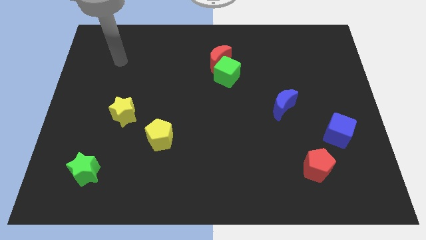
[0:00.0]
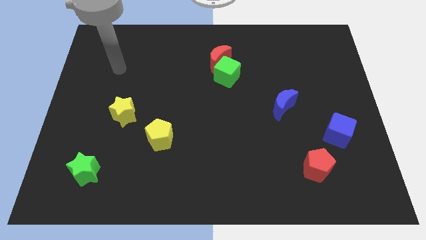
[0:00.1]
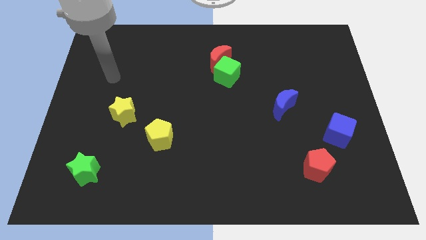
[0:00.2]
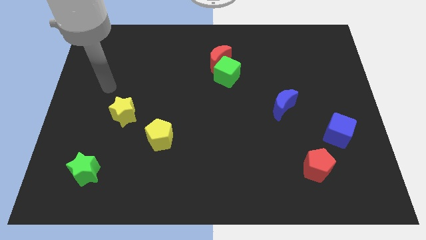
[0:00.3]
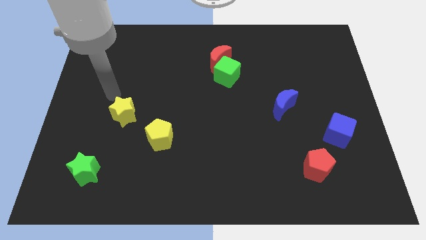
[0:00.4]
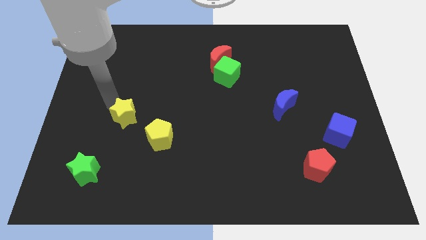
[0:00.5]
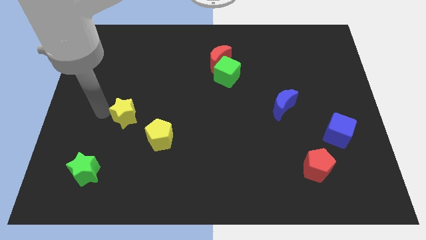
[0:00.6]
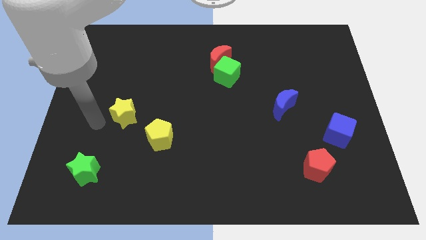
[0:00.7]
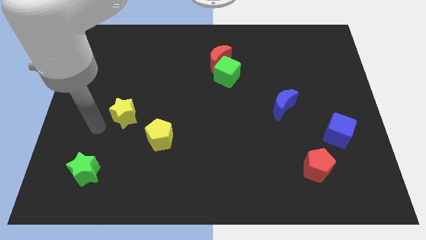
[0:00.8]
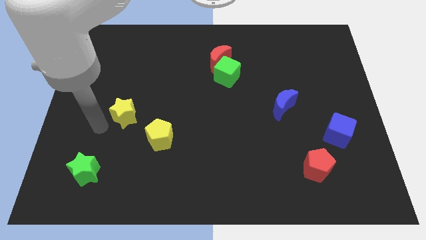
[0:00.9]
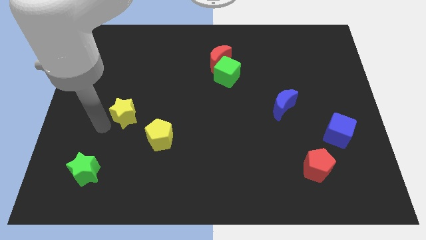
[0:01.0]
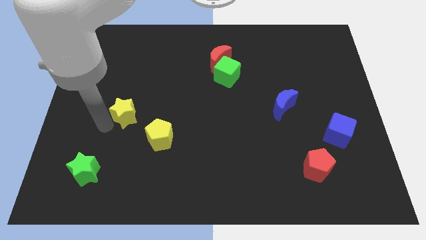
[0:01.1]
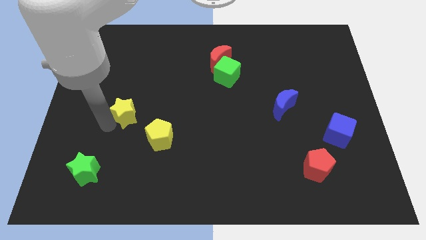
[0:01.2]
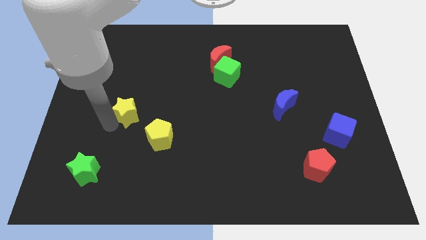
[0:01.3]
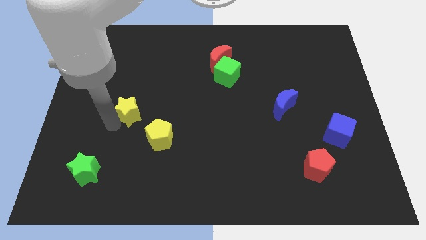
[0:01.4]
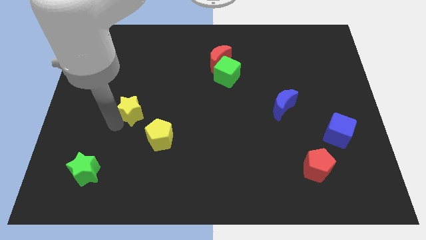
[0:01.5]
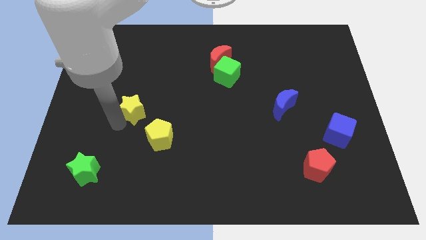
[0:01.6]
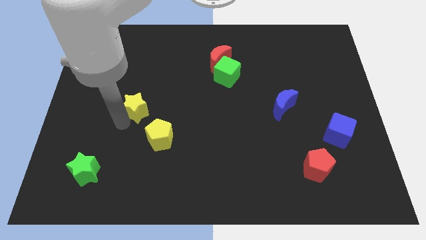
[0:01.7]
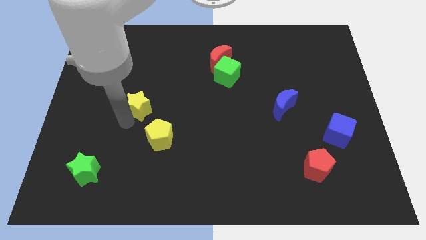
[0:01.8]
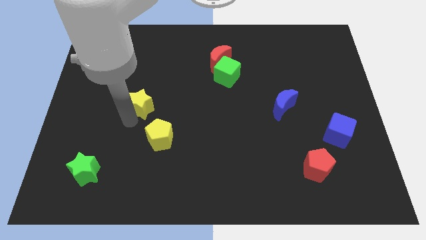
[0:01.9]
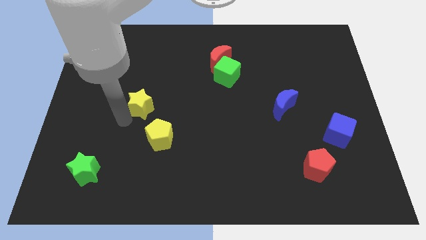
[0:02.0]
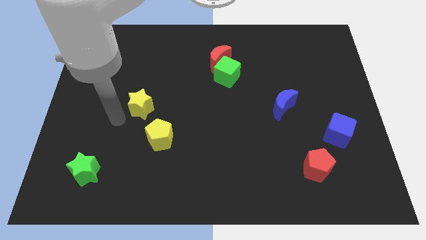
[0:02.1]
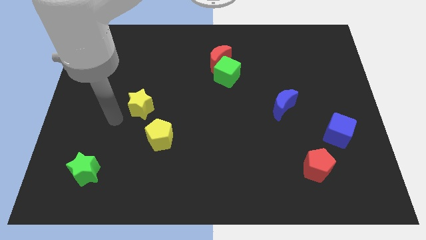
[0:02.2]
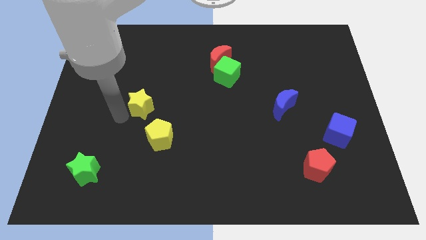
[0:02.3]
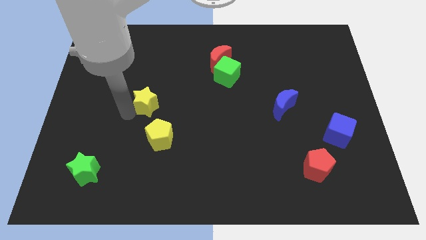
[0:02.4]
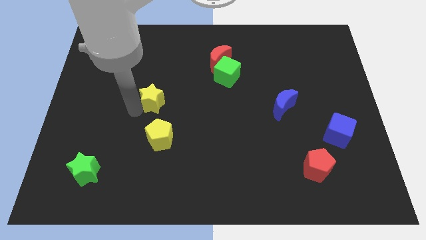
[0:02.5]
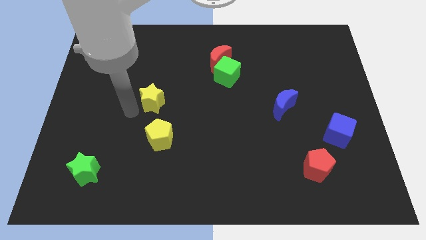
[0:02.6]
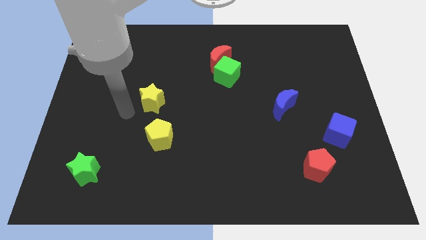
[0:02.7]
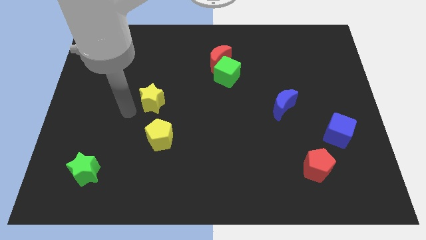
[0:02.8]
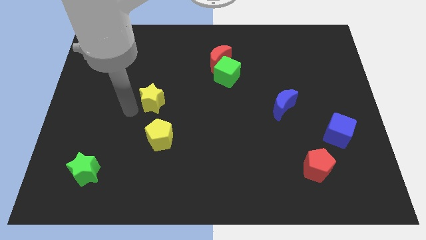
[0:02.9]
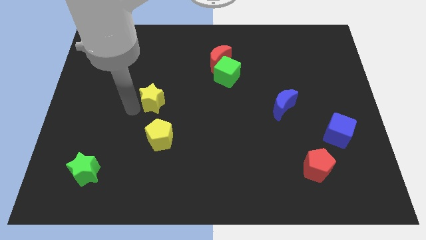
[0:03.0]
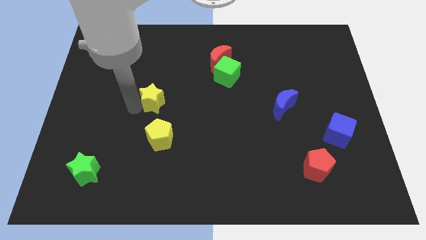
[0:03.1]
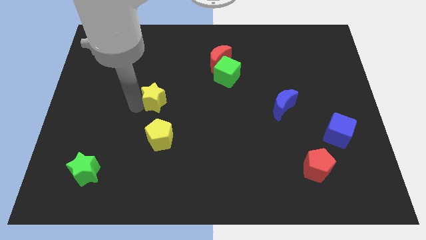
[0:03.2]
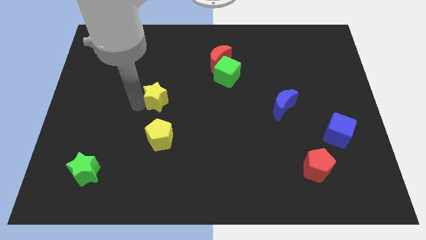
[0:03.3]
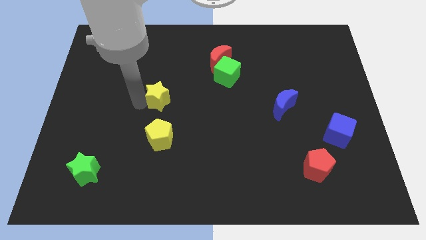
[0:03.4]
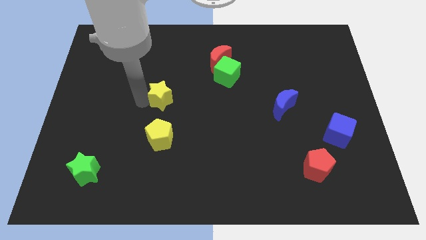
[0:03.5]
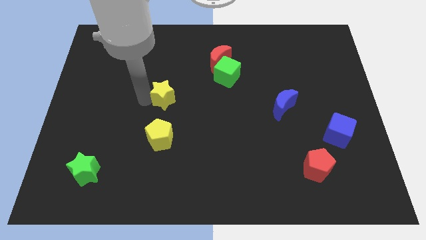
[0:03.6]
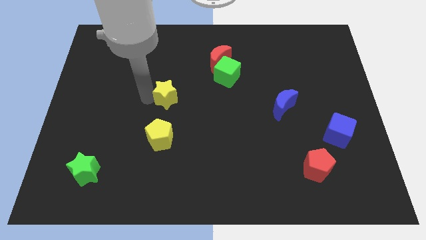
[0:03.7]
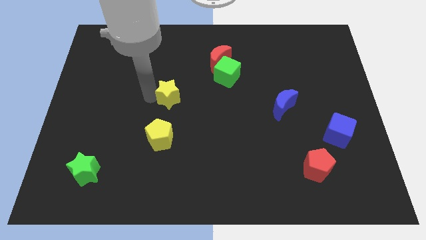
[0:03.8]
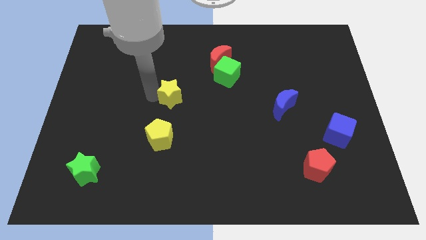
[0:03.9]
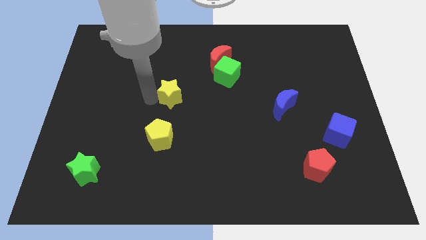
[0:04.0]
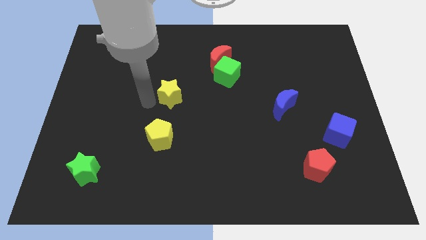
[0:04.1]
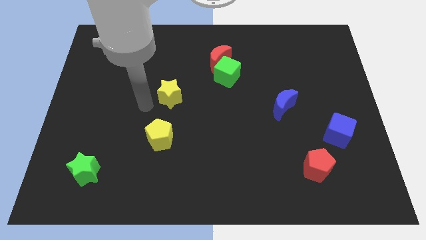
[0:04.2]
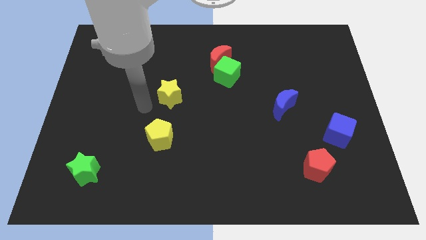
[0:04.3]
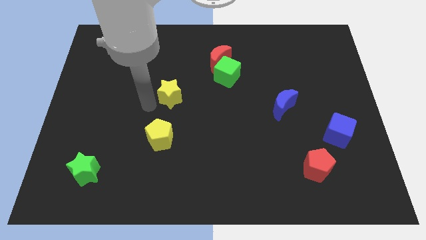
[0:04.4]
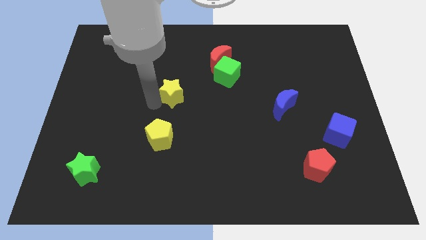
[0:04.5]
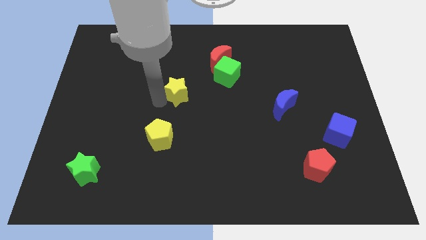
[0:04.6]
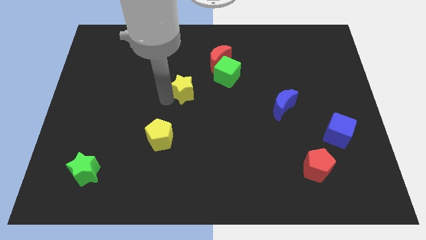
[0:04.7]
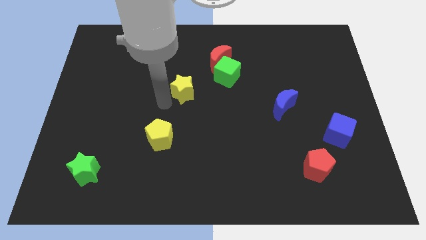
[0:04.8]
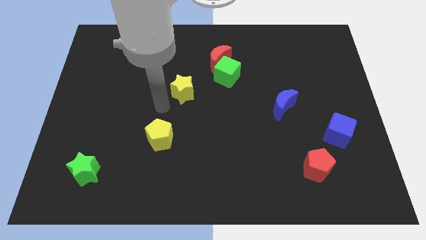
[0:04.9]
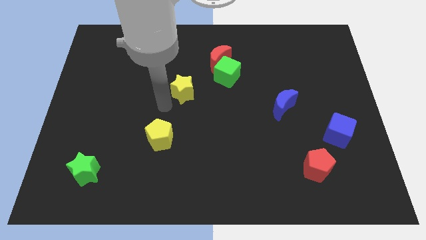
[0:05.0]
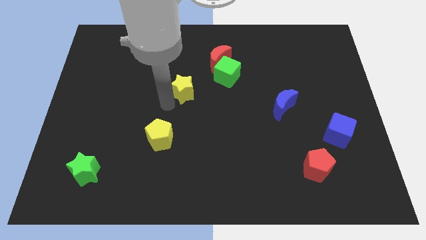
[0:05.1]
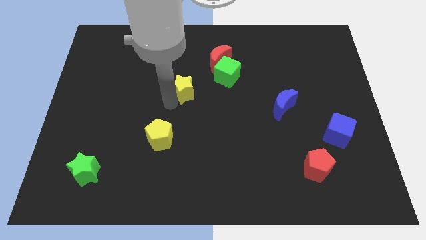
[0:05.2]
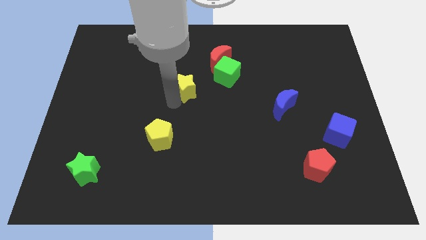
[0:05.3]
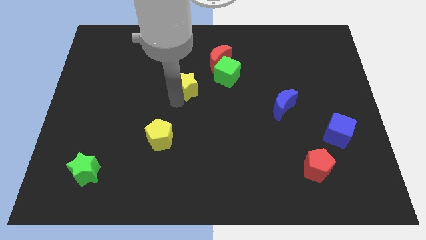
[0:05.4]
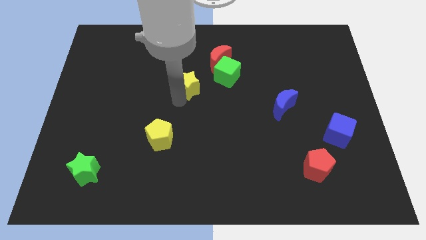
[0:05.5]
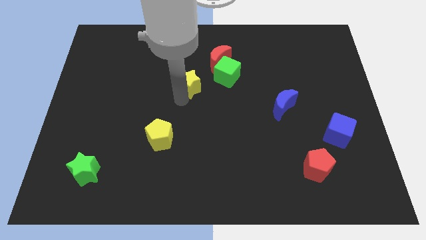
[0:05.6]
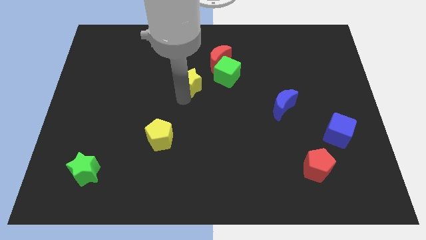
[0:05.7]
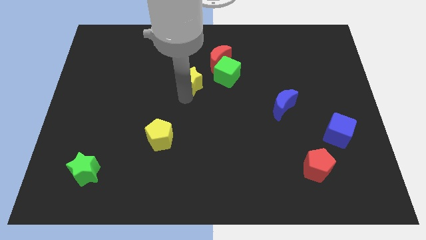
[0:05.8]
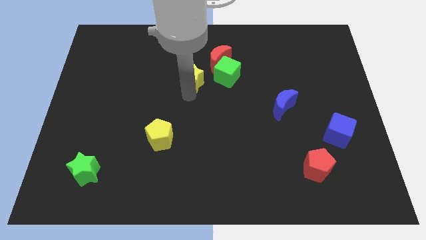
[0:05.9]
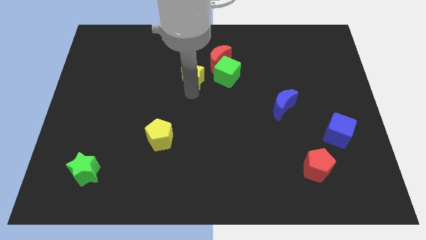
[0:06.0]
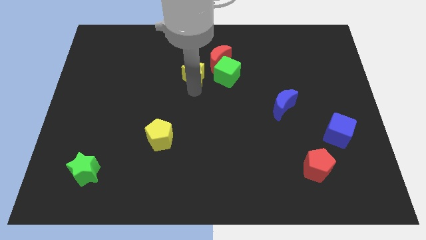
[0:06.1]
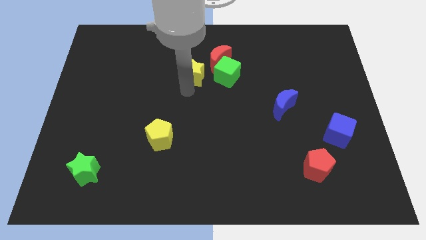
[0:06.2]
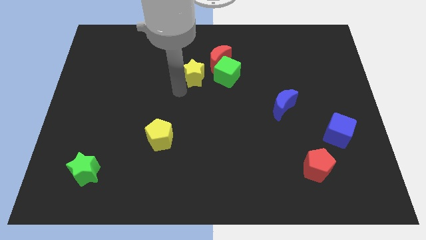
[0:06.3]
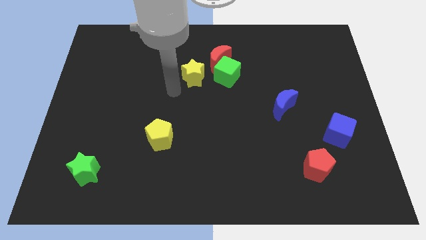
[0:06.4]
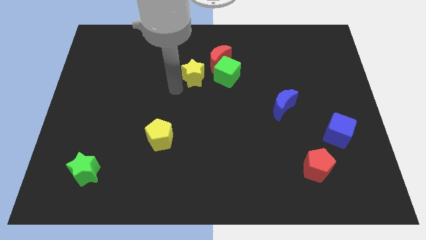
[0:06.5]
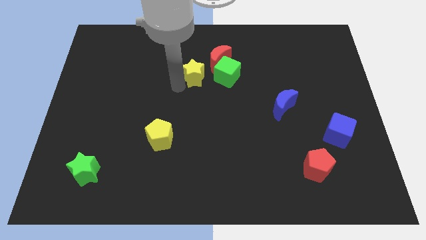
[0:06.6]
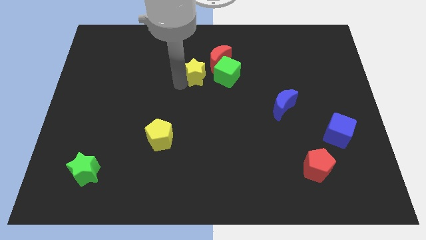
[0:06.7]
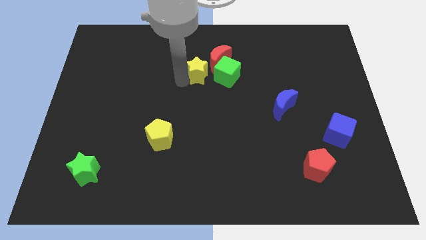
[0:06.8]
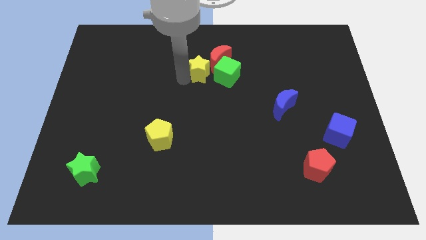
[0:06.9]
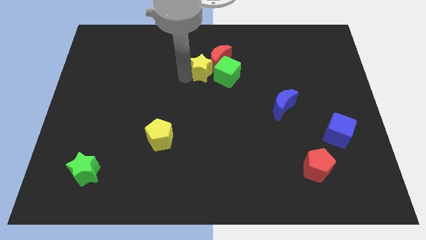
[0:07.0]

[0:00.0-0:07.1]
move the yellow star to the red moon

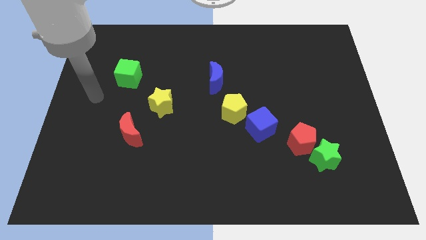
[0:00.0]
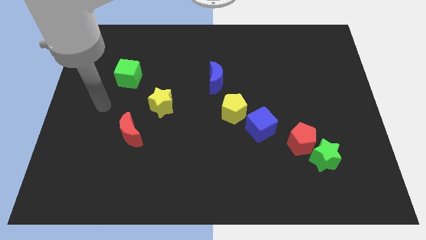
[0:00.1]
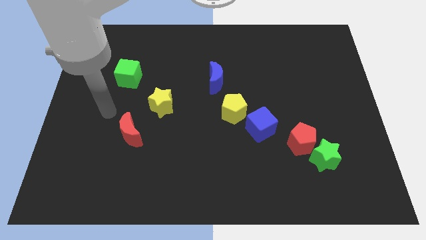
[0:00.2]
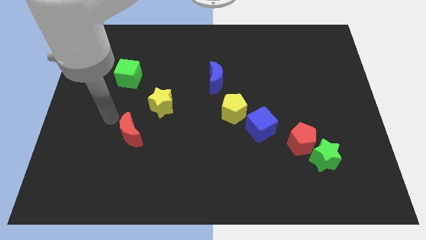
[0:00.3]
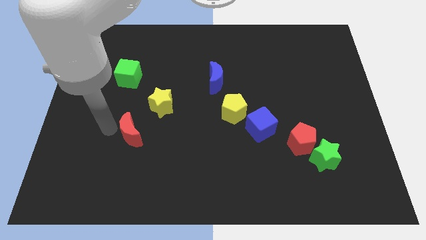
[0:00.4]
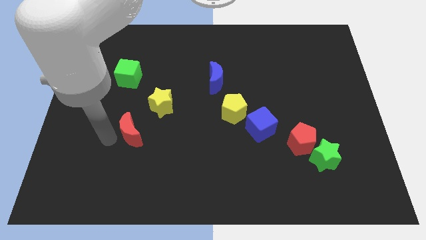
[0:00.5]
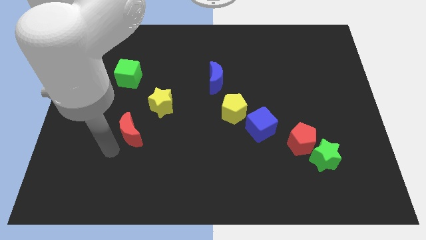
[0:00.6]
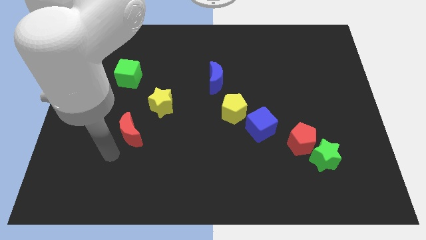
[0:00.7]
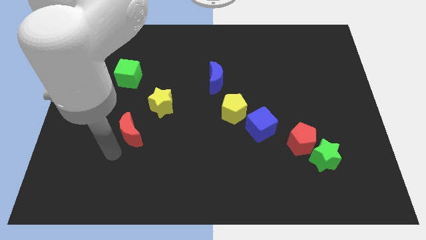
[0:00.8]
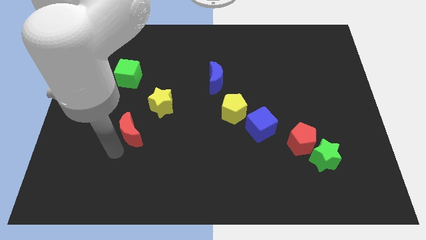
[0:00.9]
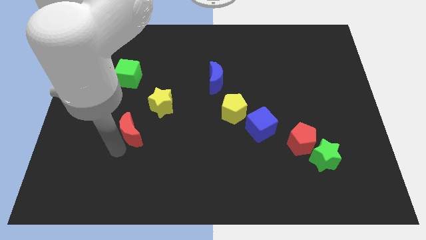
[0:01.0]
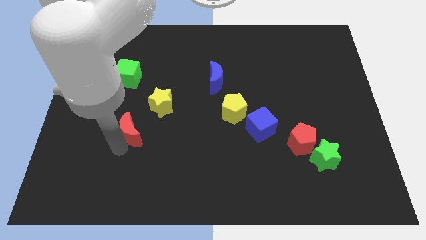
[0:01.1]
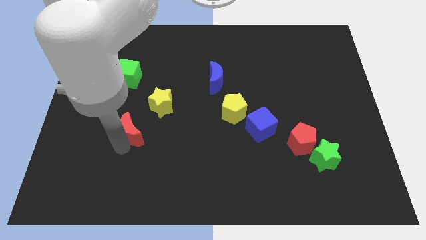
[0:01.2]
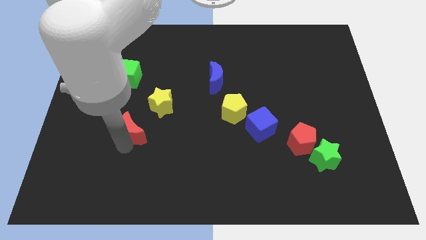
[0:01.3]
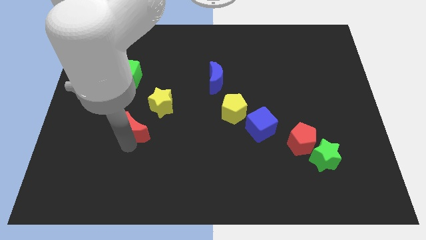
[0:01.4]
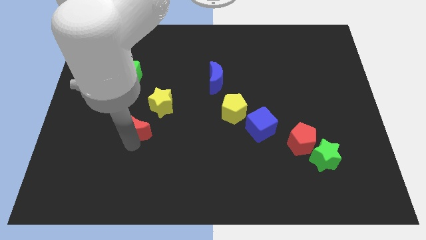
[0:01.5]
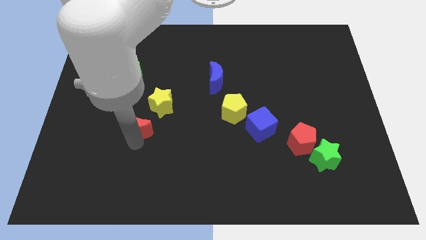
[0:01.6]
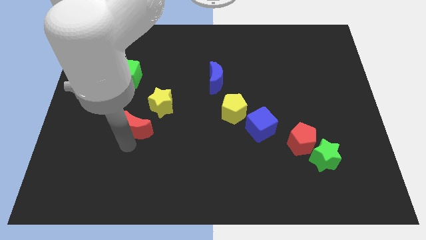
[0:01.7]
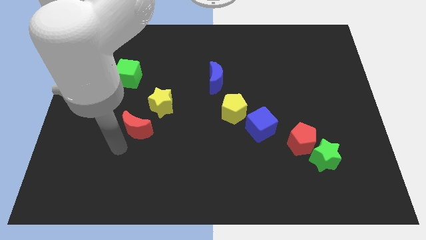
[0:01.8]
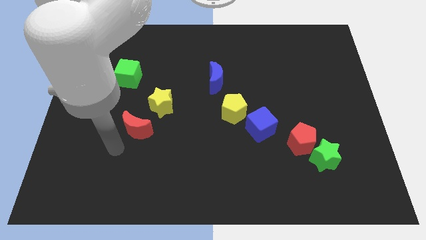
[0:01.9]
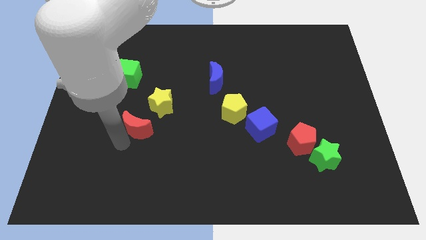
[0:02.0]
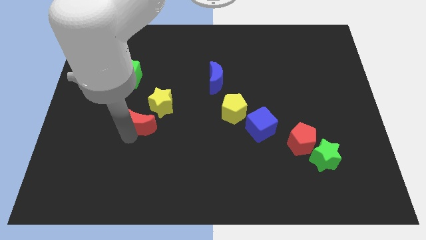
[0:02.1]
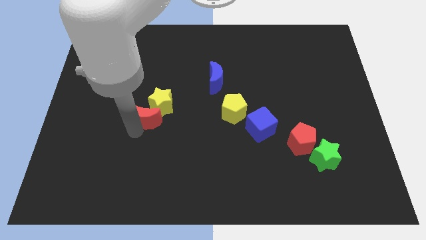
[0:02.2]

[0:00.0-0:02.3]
push the red moon next to the yellow star
